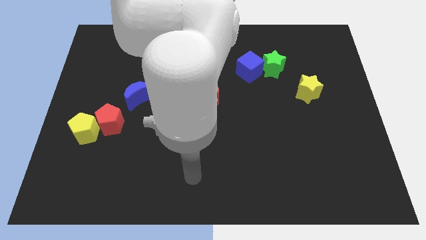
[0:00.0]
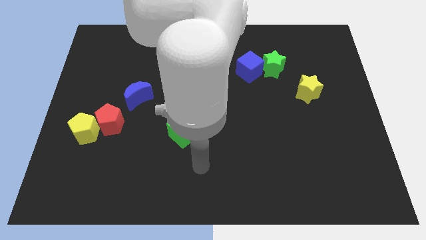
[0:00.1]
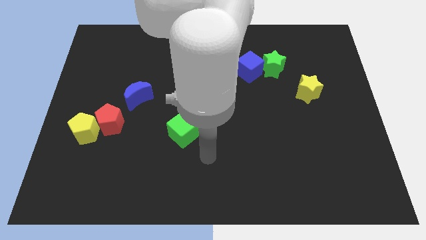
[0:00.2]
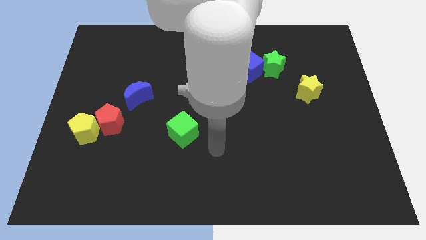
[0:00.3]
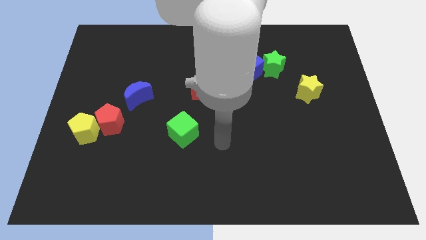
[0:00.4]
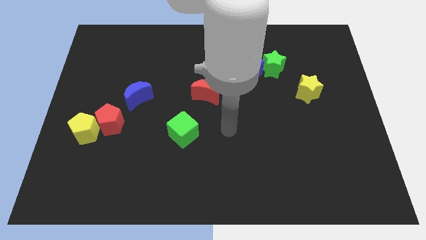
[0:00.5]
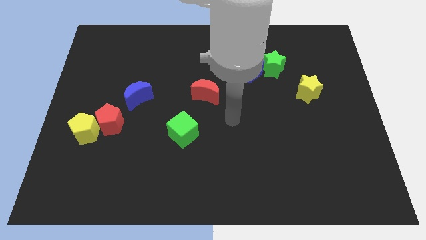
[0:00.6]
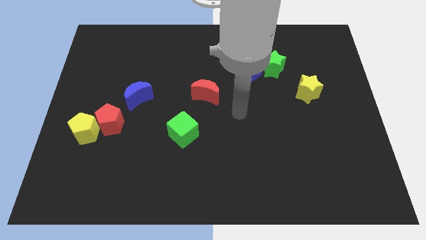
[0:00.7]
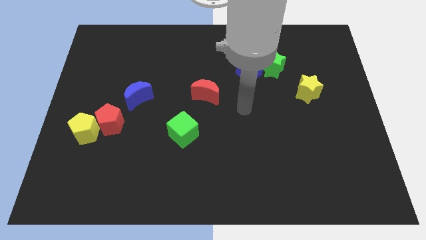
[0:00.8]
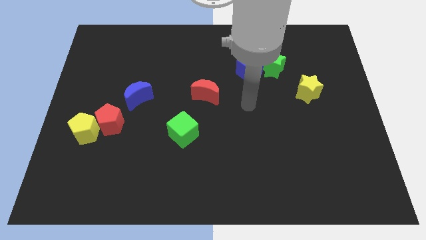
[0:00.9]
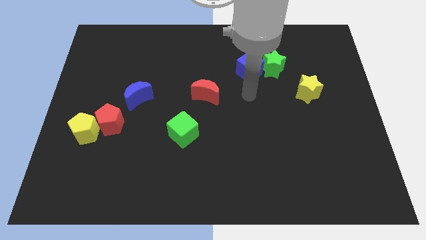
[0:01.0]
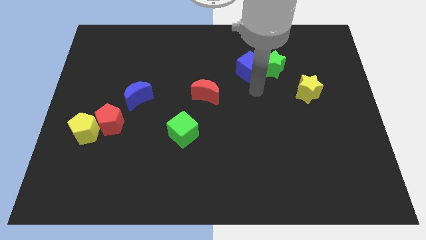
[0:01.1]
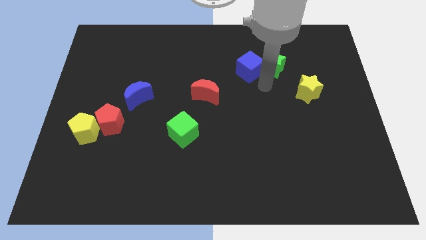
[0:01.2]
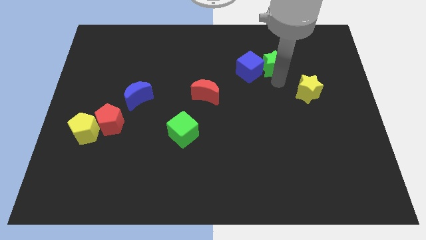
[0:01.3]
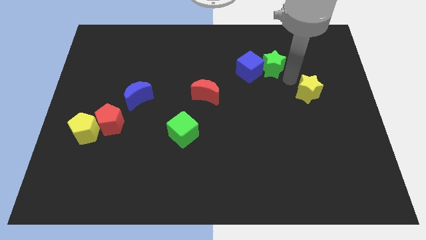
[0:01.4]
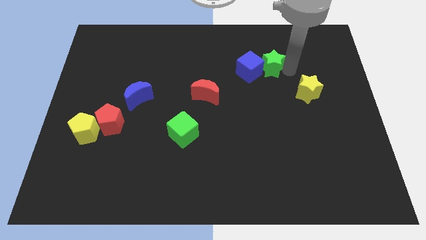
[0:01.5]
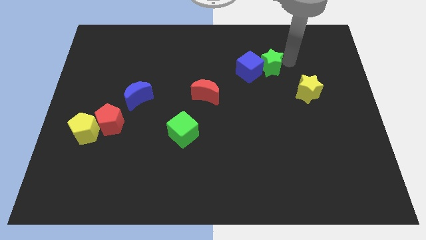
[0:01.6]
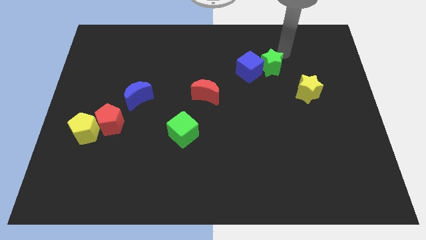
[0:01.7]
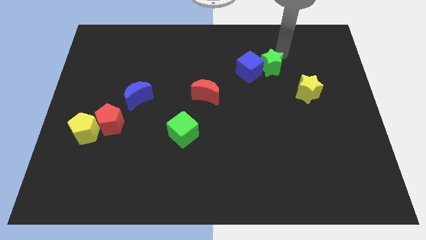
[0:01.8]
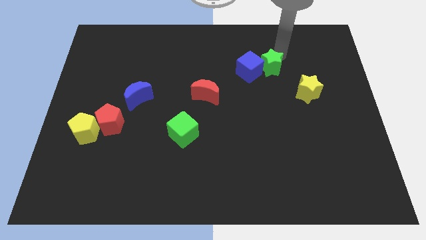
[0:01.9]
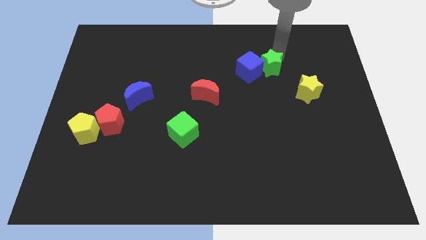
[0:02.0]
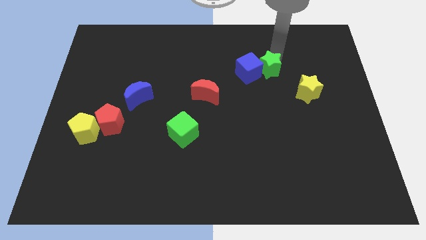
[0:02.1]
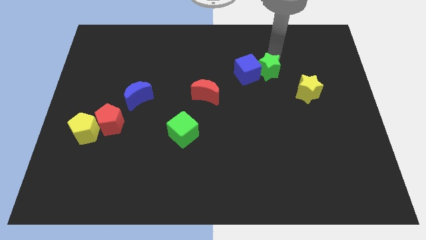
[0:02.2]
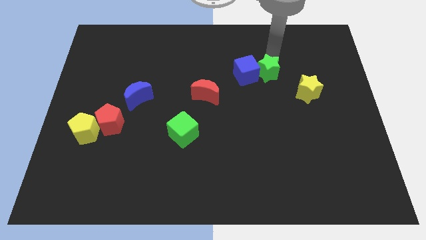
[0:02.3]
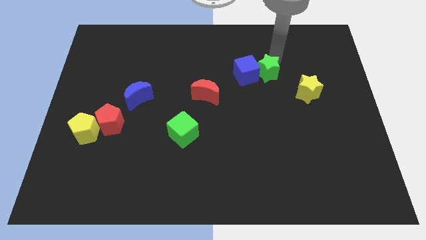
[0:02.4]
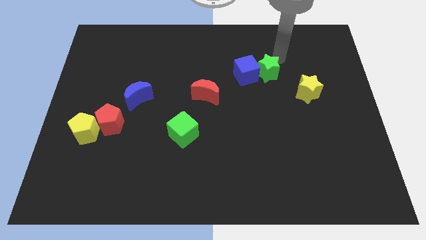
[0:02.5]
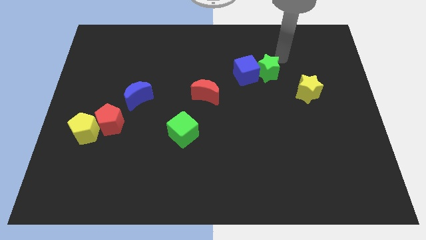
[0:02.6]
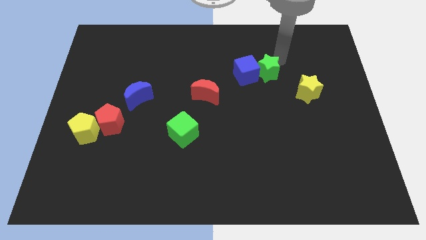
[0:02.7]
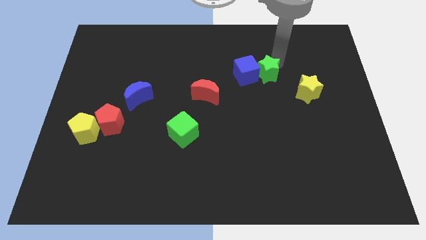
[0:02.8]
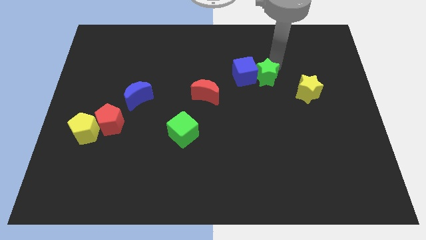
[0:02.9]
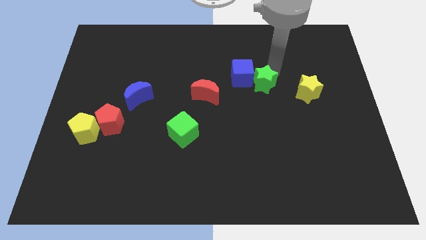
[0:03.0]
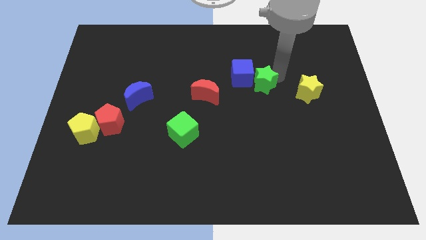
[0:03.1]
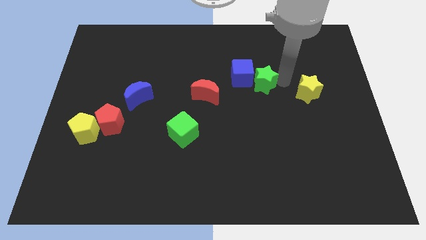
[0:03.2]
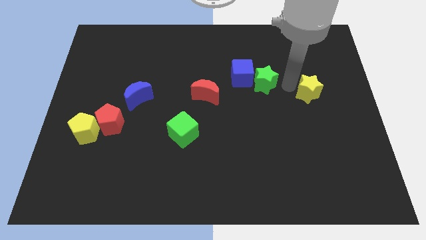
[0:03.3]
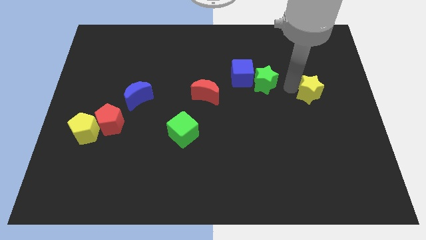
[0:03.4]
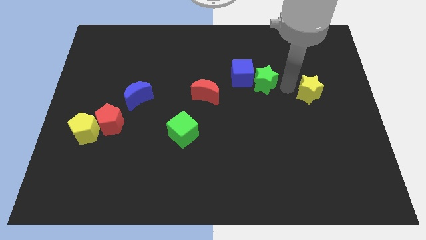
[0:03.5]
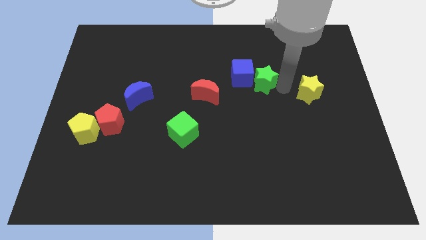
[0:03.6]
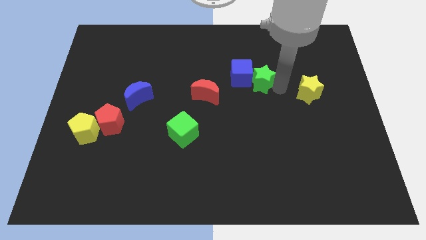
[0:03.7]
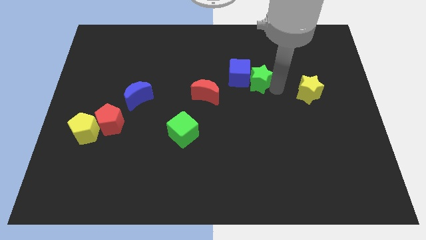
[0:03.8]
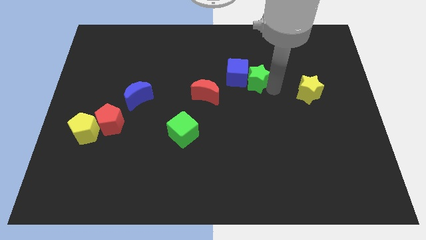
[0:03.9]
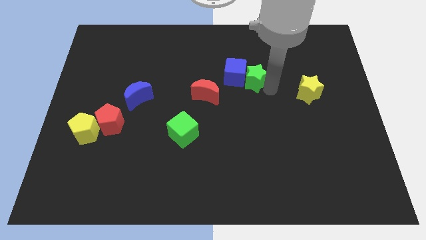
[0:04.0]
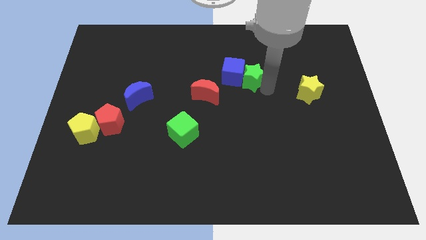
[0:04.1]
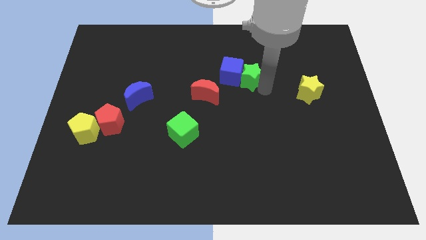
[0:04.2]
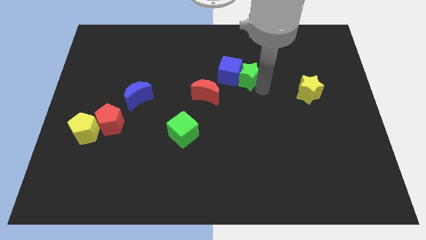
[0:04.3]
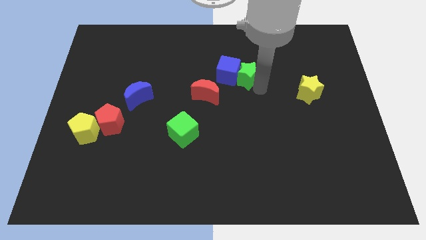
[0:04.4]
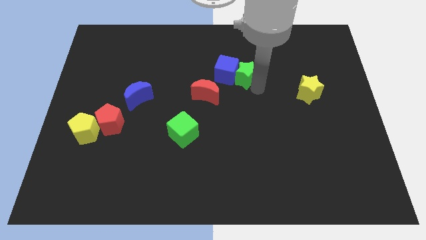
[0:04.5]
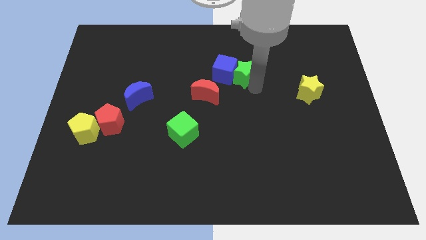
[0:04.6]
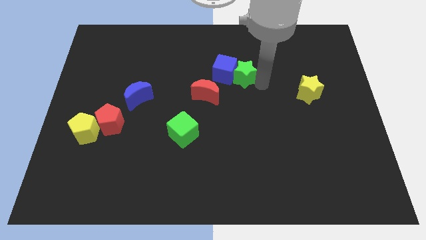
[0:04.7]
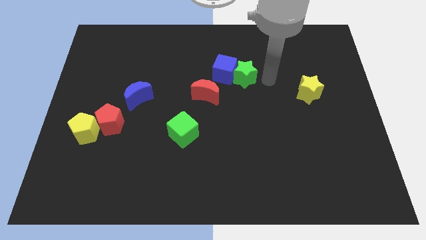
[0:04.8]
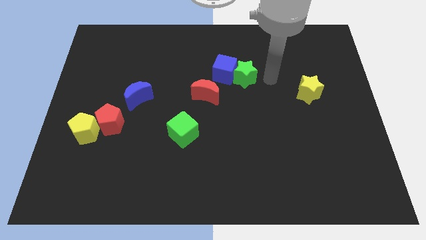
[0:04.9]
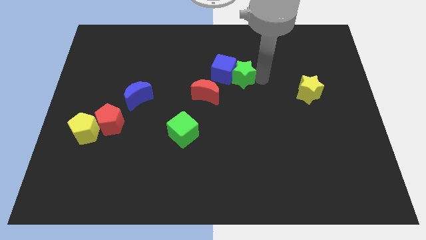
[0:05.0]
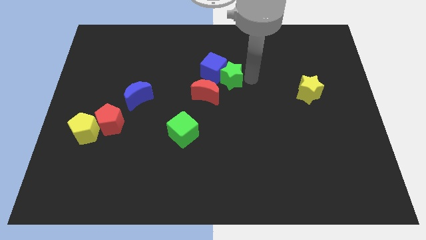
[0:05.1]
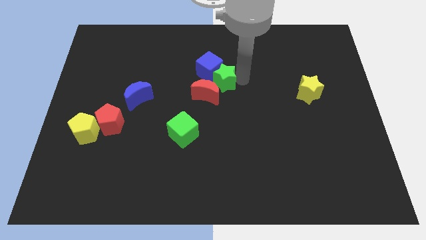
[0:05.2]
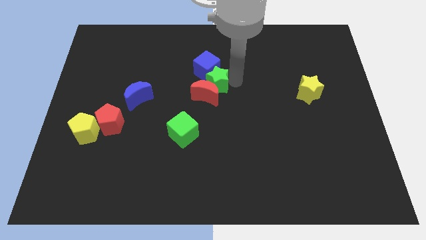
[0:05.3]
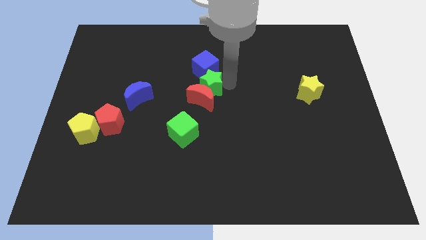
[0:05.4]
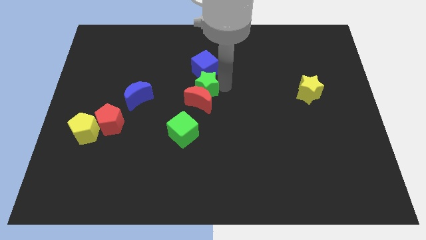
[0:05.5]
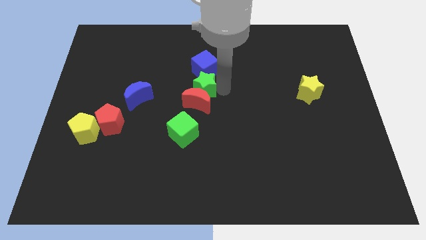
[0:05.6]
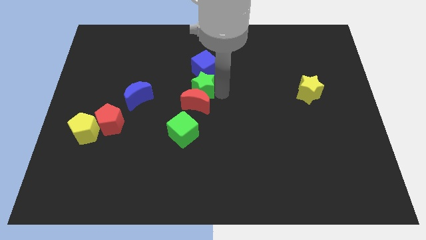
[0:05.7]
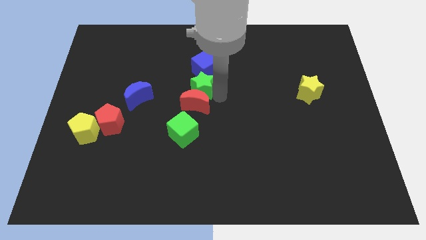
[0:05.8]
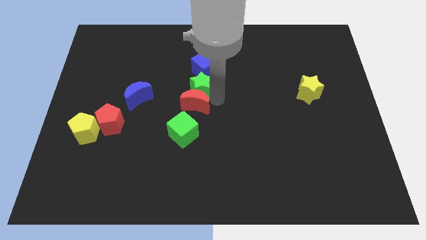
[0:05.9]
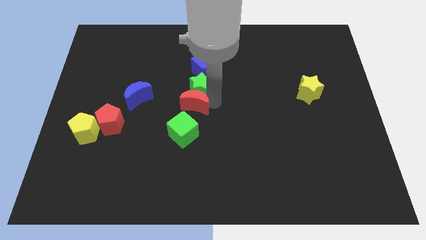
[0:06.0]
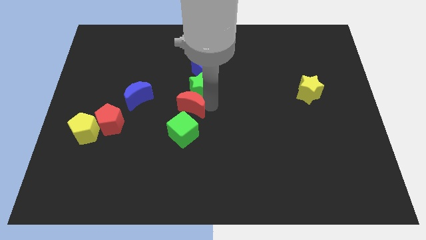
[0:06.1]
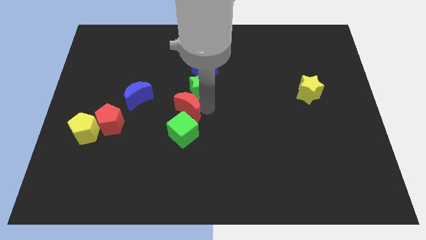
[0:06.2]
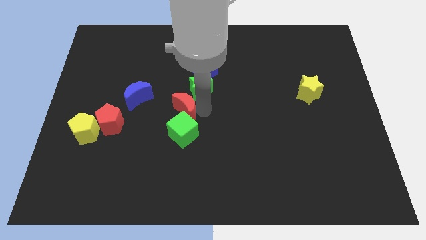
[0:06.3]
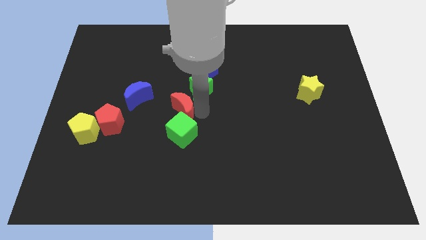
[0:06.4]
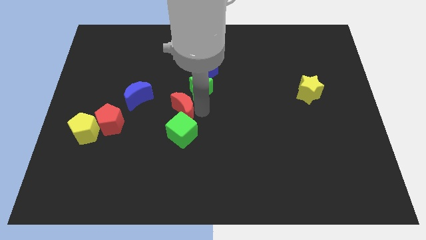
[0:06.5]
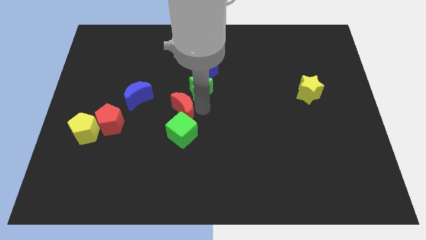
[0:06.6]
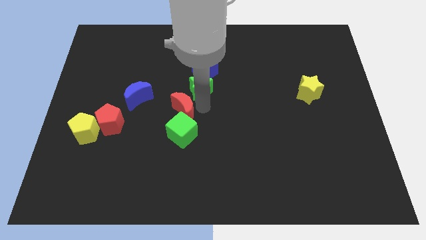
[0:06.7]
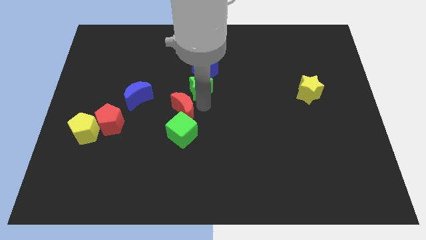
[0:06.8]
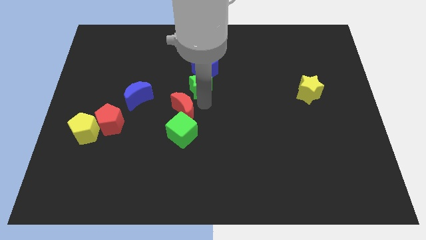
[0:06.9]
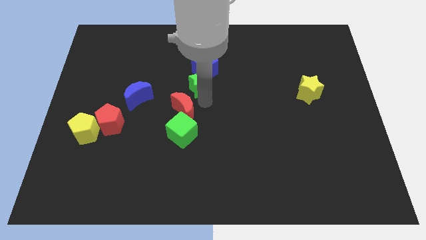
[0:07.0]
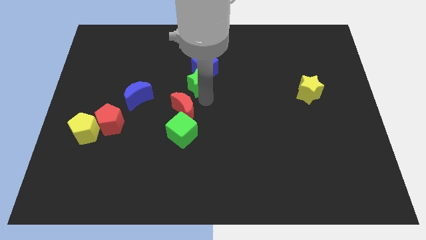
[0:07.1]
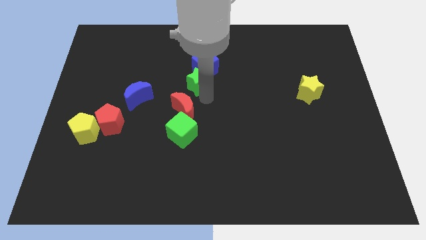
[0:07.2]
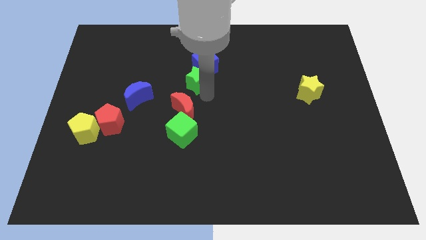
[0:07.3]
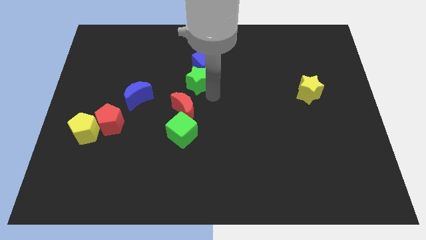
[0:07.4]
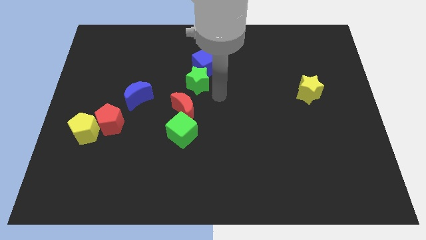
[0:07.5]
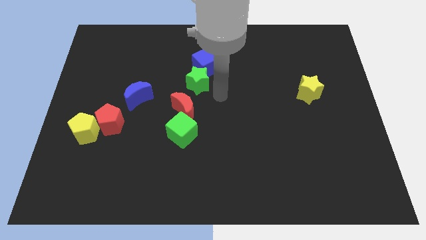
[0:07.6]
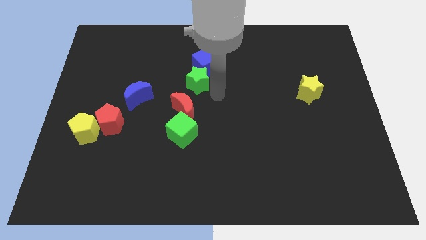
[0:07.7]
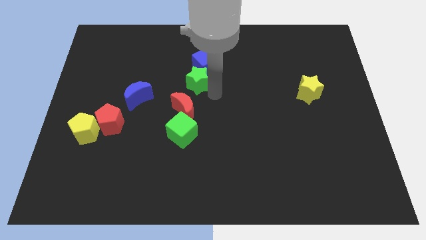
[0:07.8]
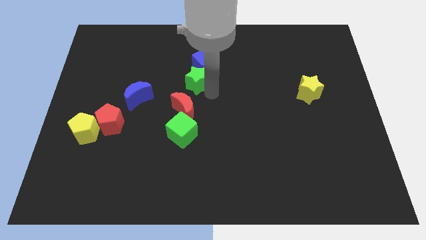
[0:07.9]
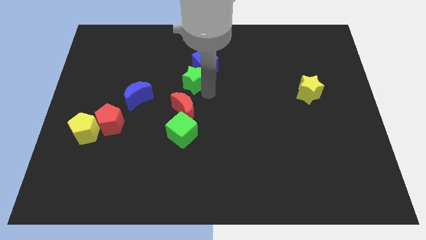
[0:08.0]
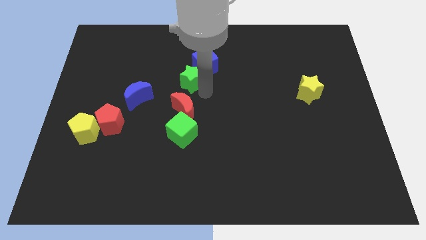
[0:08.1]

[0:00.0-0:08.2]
push the green star left

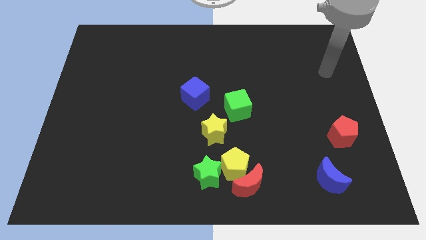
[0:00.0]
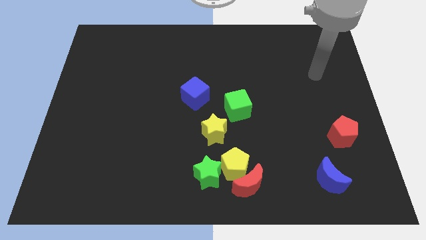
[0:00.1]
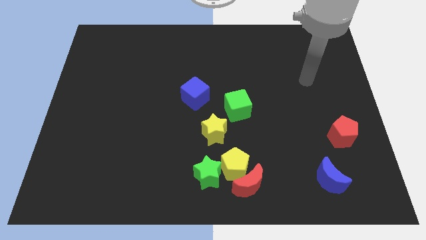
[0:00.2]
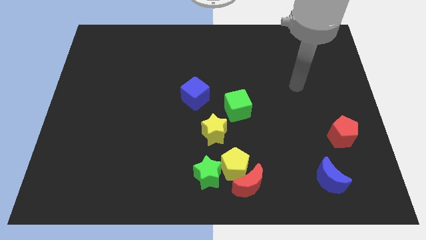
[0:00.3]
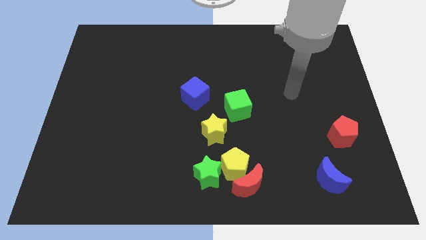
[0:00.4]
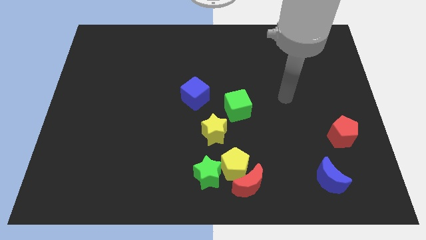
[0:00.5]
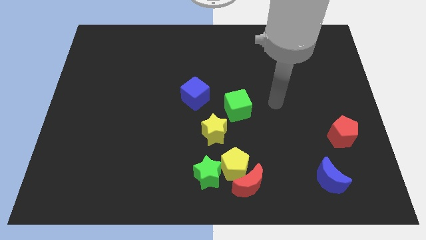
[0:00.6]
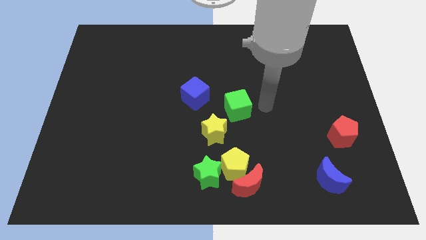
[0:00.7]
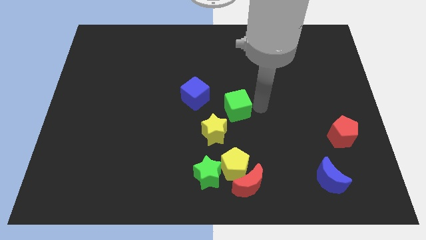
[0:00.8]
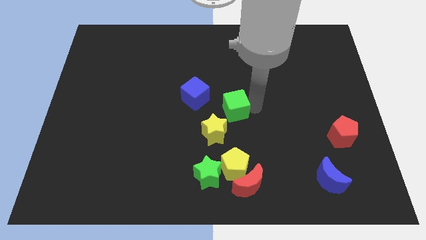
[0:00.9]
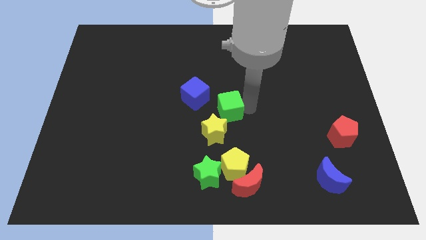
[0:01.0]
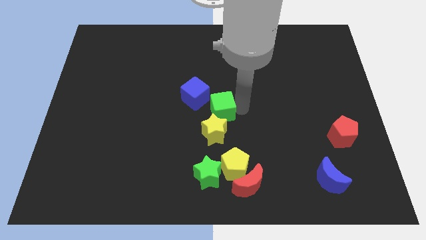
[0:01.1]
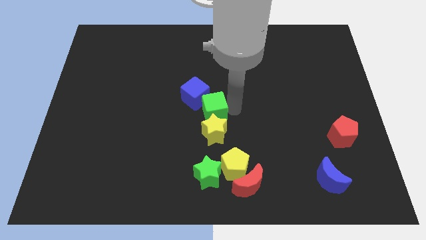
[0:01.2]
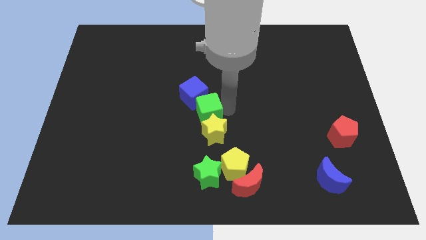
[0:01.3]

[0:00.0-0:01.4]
slightly push the green cube to the left
